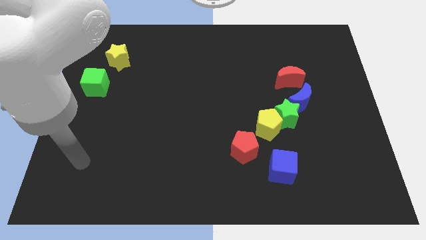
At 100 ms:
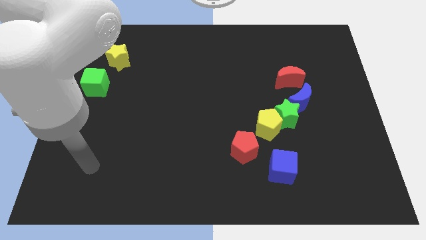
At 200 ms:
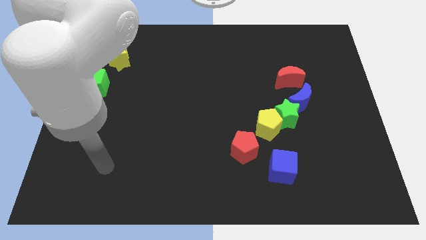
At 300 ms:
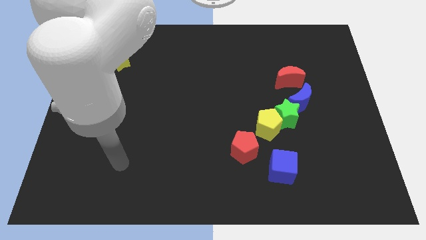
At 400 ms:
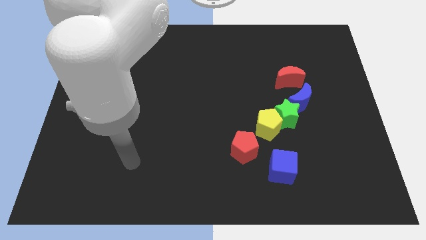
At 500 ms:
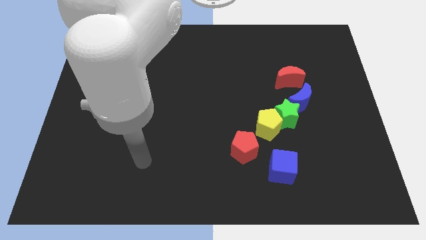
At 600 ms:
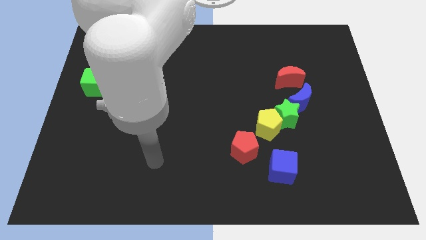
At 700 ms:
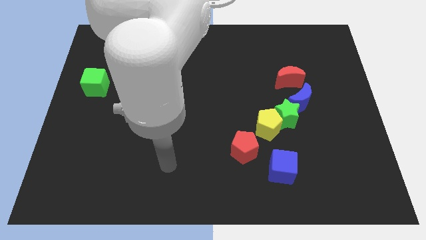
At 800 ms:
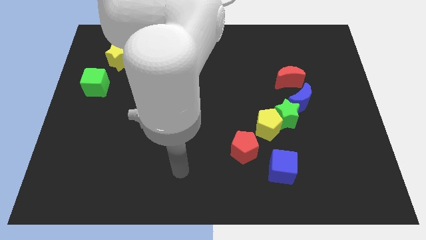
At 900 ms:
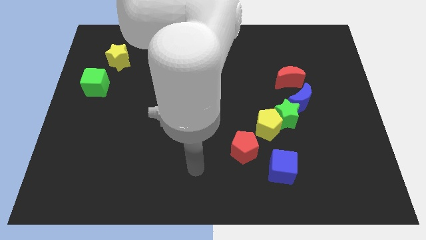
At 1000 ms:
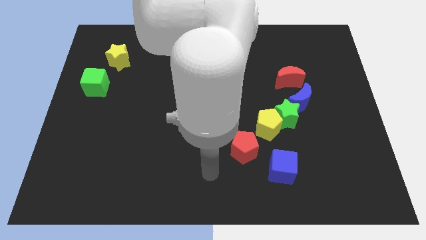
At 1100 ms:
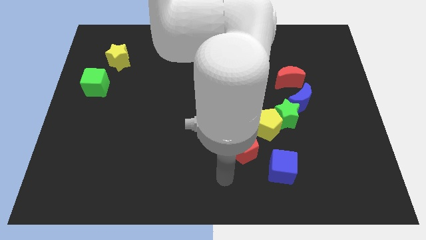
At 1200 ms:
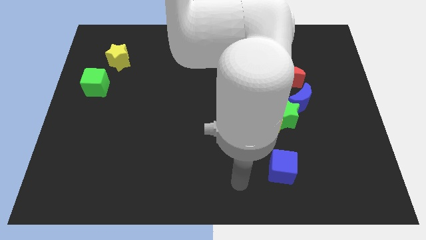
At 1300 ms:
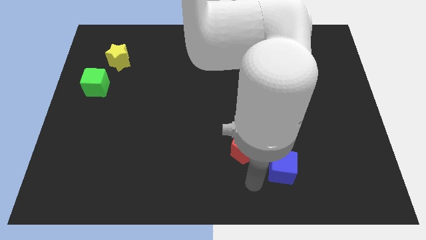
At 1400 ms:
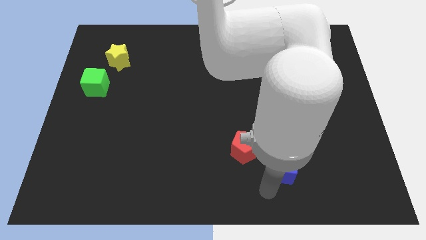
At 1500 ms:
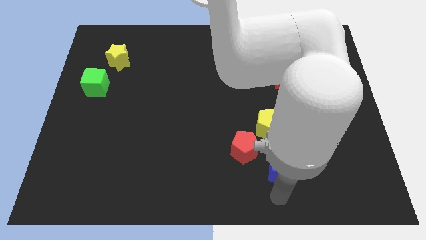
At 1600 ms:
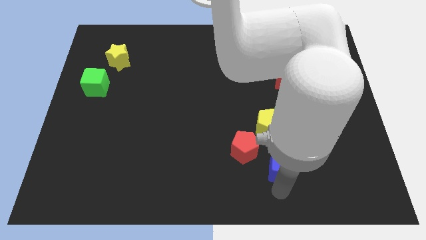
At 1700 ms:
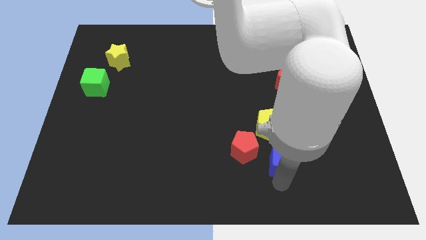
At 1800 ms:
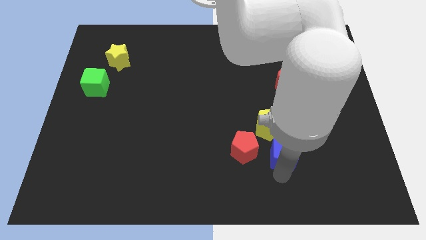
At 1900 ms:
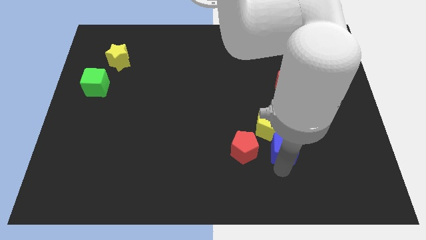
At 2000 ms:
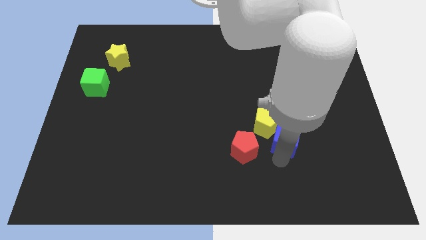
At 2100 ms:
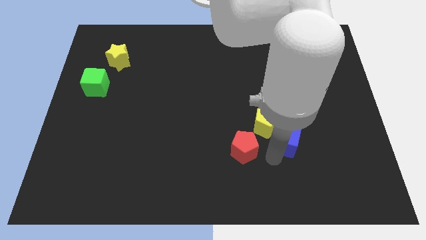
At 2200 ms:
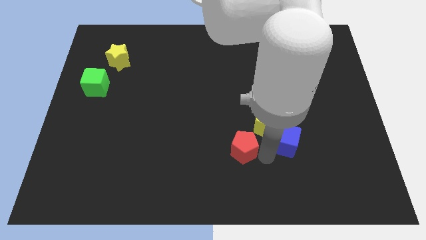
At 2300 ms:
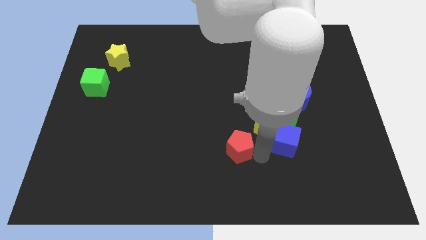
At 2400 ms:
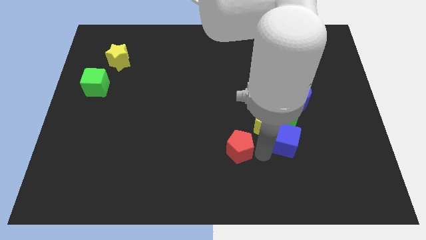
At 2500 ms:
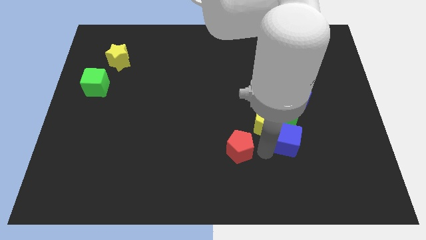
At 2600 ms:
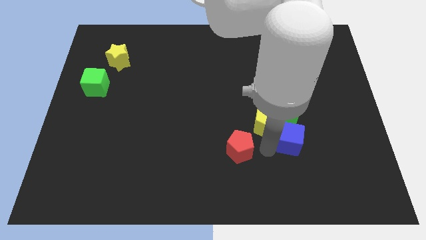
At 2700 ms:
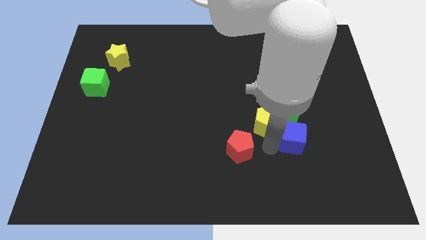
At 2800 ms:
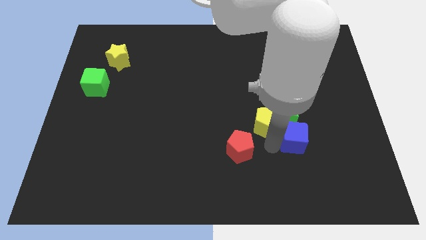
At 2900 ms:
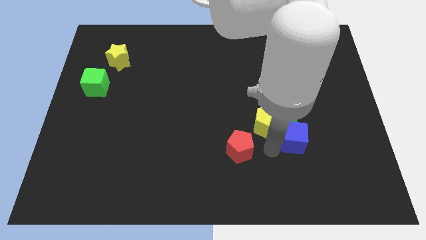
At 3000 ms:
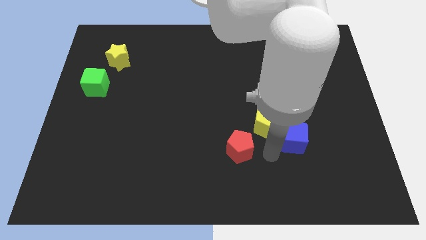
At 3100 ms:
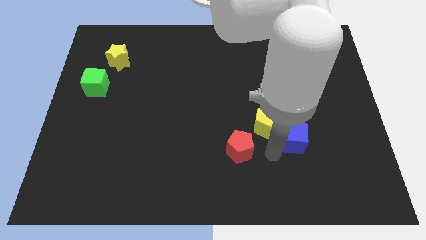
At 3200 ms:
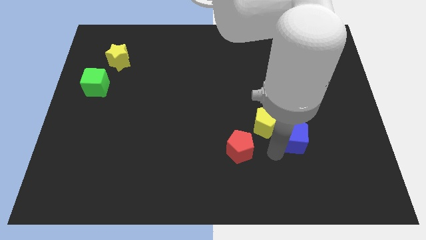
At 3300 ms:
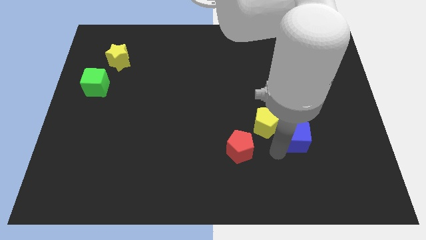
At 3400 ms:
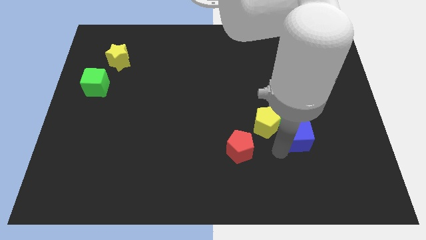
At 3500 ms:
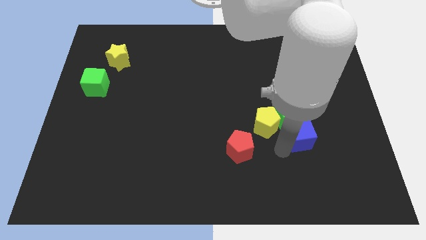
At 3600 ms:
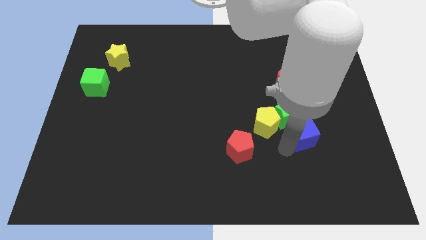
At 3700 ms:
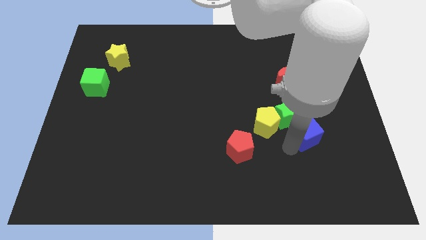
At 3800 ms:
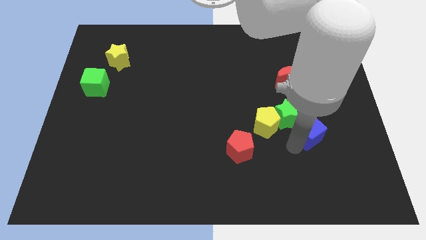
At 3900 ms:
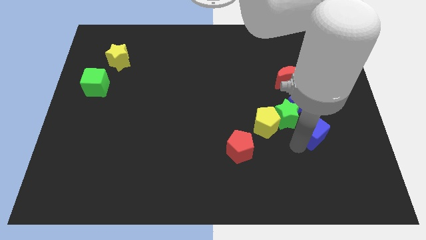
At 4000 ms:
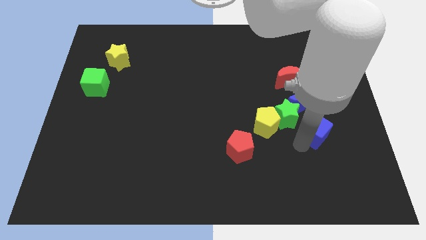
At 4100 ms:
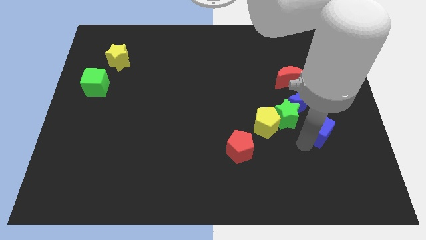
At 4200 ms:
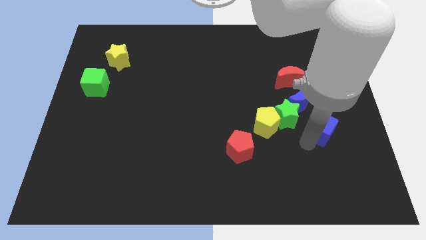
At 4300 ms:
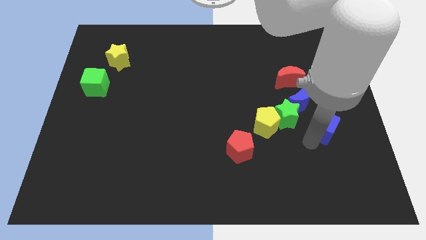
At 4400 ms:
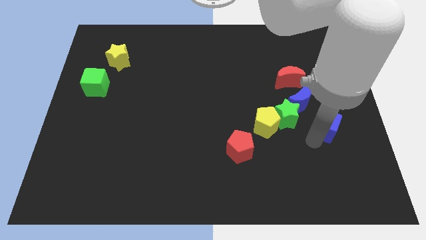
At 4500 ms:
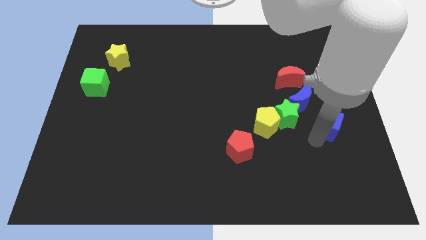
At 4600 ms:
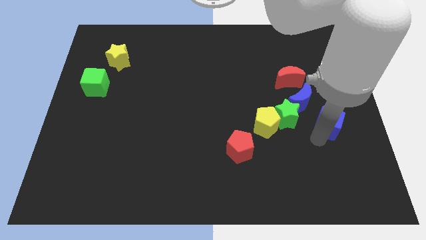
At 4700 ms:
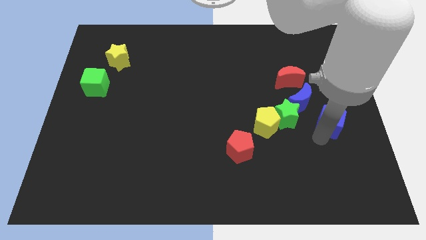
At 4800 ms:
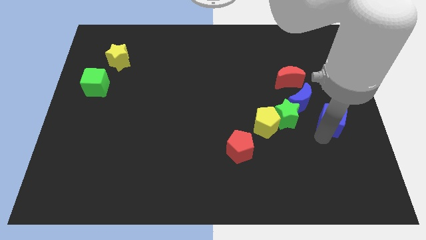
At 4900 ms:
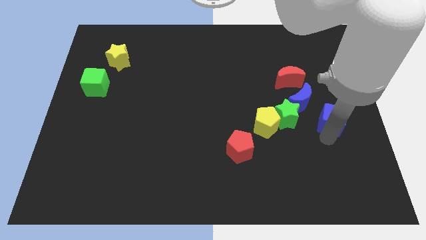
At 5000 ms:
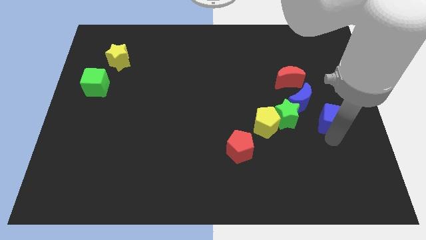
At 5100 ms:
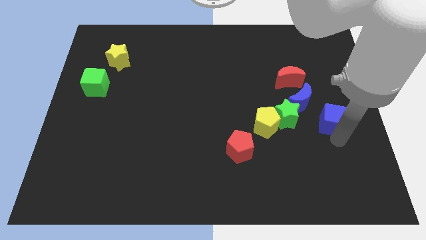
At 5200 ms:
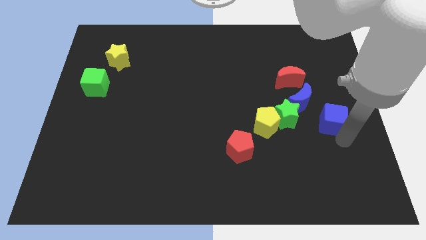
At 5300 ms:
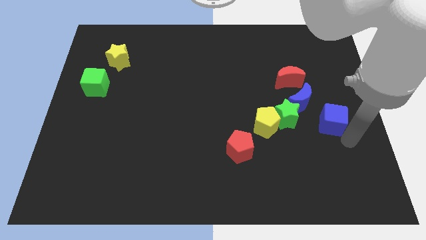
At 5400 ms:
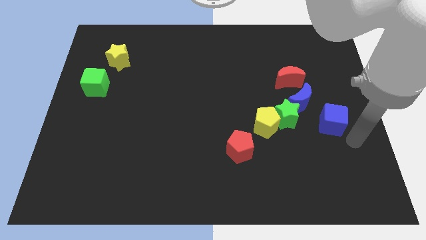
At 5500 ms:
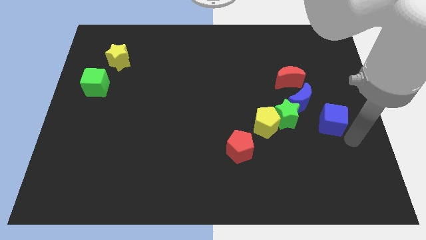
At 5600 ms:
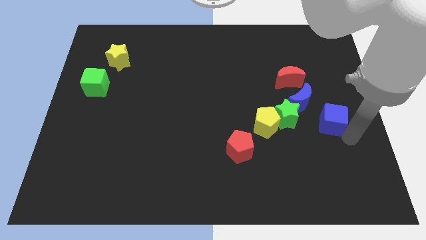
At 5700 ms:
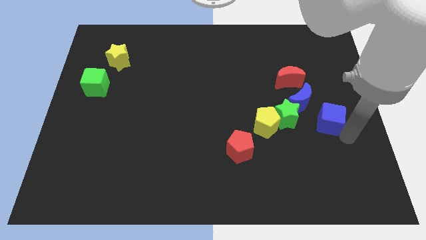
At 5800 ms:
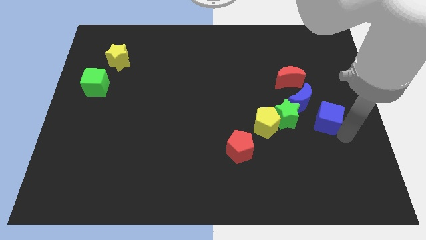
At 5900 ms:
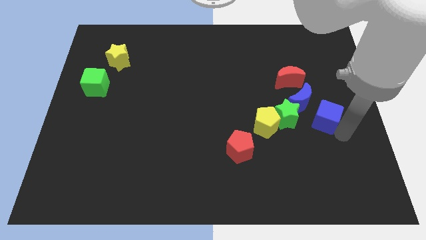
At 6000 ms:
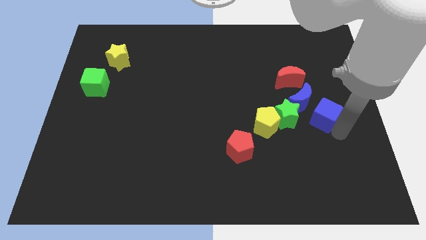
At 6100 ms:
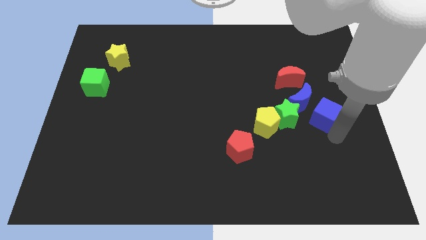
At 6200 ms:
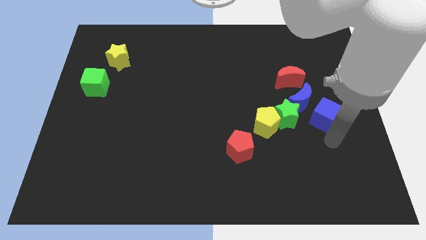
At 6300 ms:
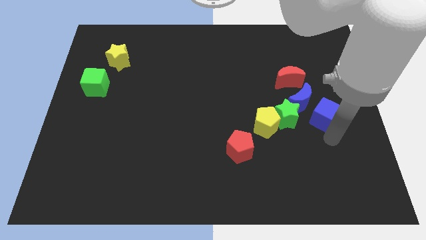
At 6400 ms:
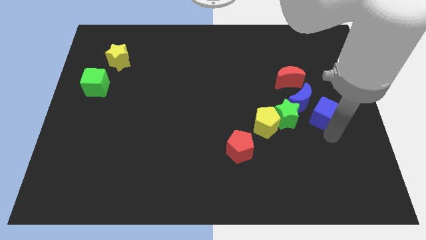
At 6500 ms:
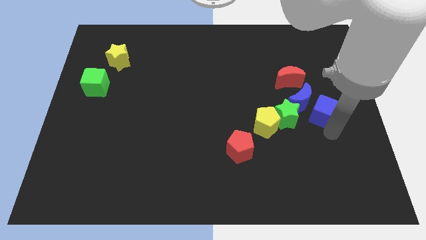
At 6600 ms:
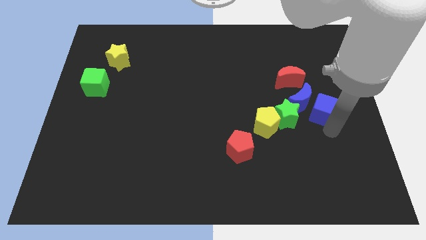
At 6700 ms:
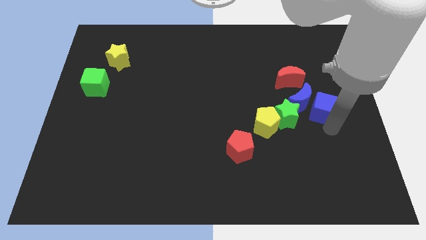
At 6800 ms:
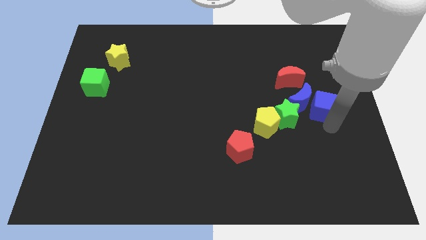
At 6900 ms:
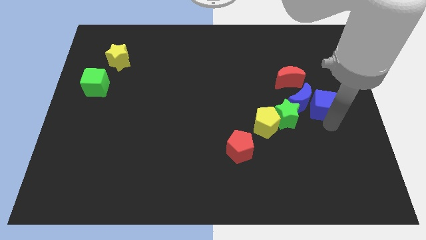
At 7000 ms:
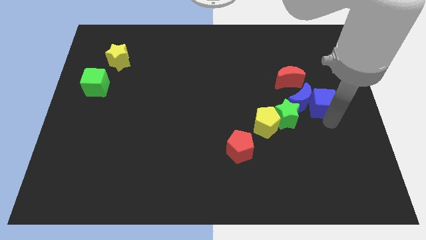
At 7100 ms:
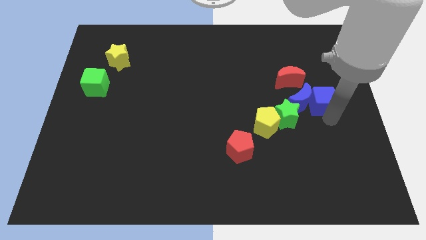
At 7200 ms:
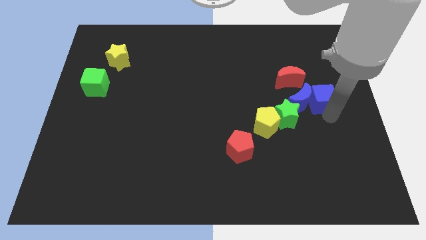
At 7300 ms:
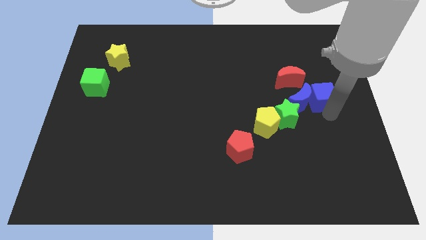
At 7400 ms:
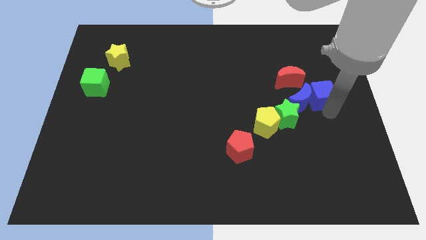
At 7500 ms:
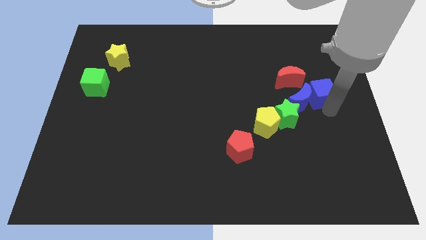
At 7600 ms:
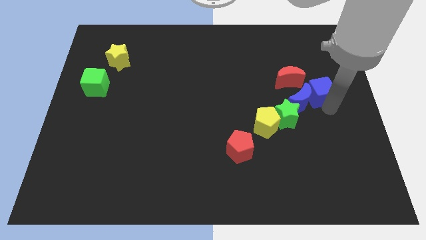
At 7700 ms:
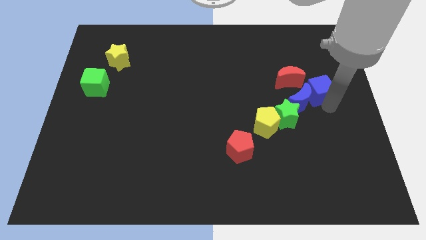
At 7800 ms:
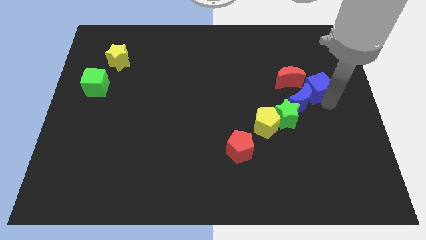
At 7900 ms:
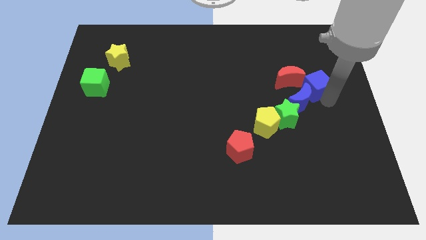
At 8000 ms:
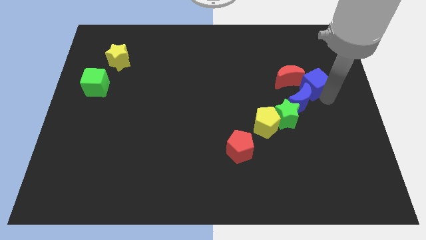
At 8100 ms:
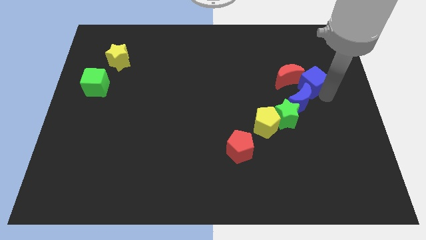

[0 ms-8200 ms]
put the blue cube close to the red moon
